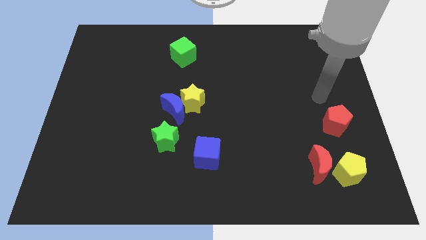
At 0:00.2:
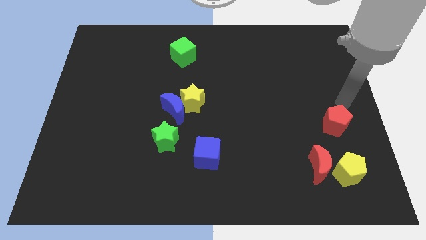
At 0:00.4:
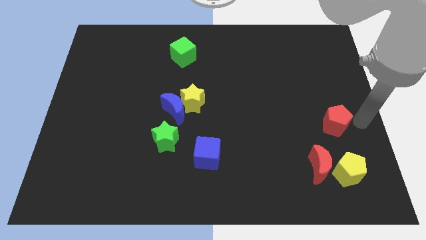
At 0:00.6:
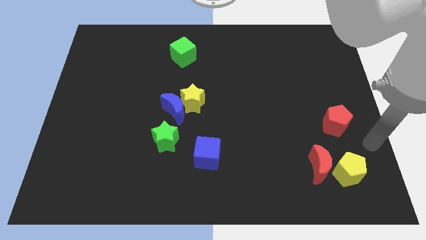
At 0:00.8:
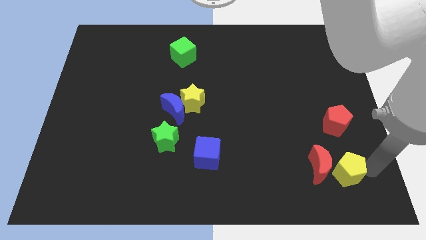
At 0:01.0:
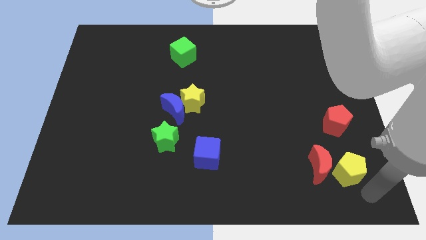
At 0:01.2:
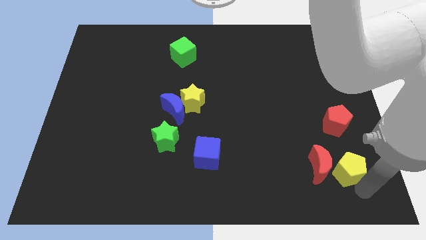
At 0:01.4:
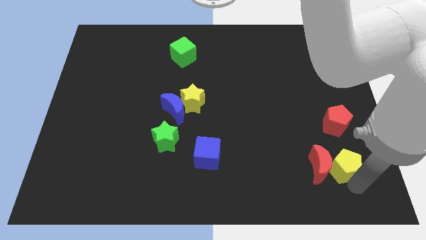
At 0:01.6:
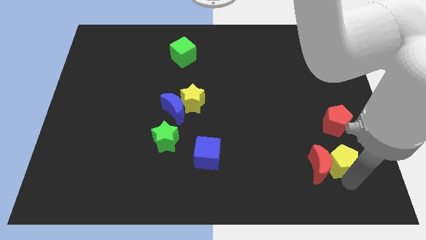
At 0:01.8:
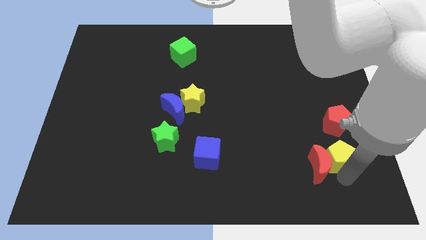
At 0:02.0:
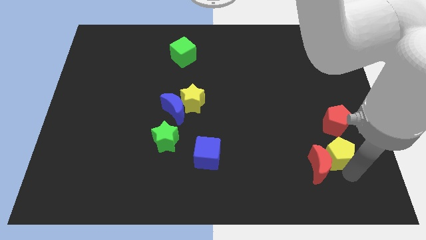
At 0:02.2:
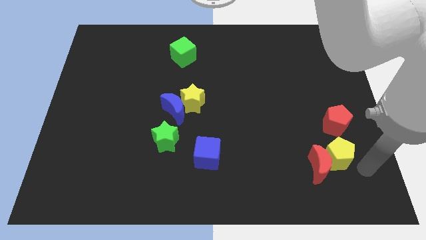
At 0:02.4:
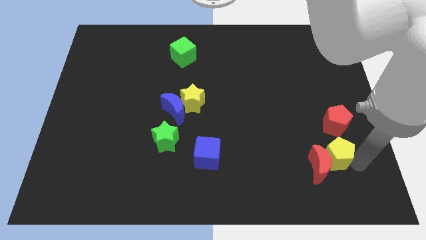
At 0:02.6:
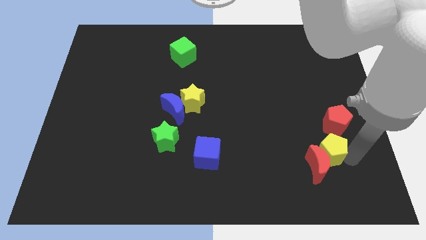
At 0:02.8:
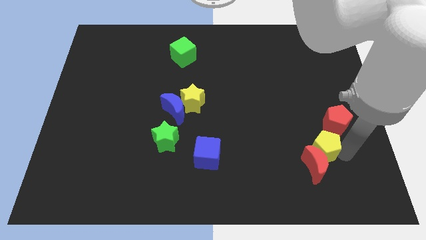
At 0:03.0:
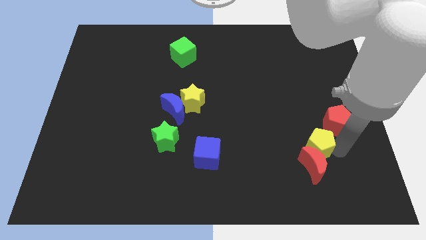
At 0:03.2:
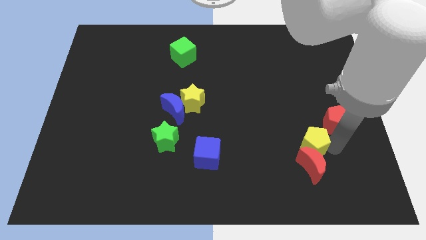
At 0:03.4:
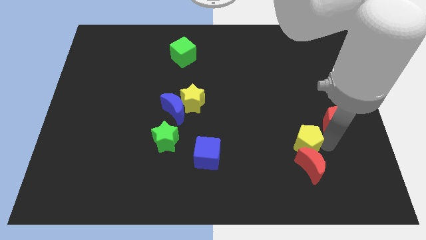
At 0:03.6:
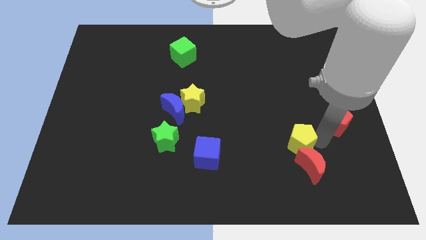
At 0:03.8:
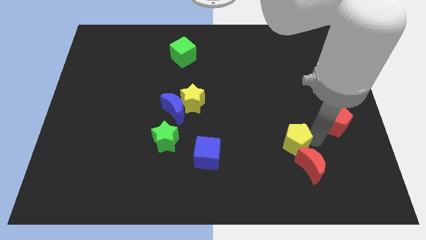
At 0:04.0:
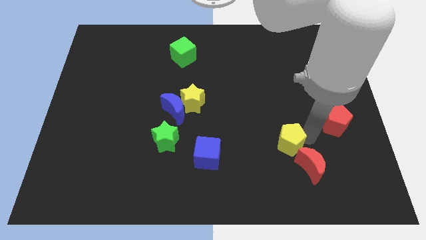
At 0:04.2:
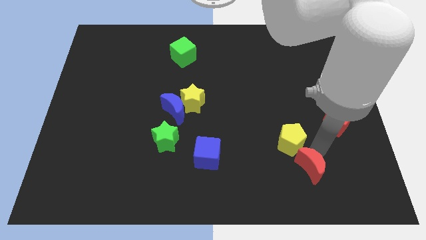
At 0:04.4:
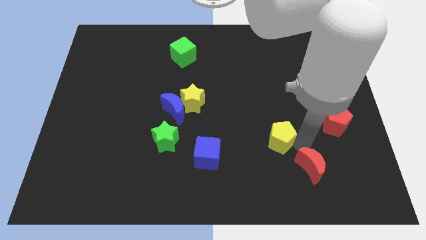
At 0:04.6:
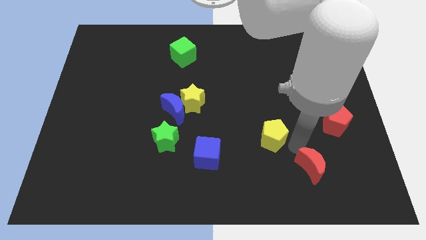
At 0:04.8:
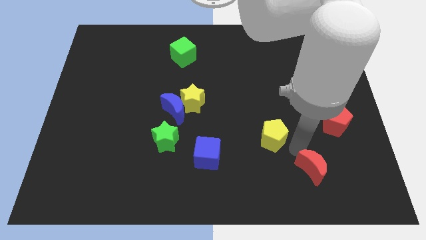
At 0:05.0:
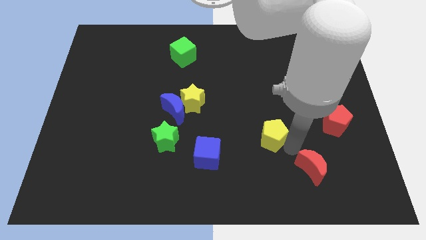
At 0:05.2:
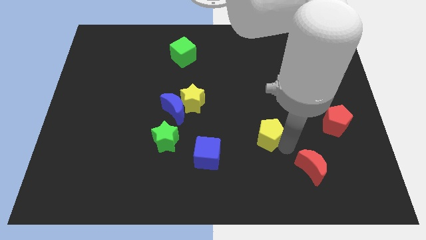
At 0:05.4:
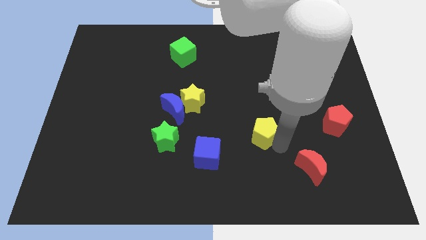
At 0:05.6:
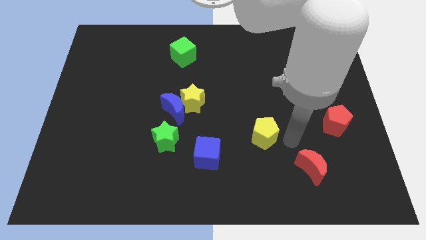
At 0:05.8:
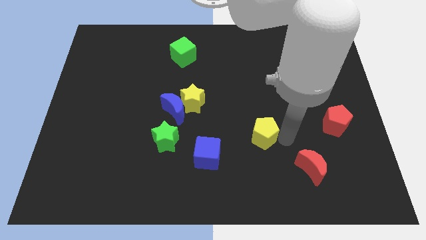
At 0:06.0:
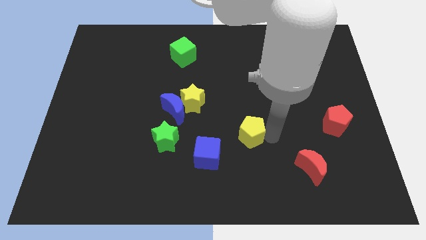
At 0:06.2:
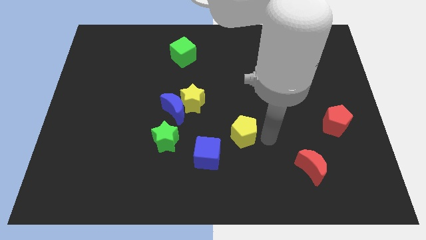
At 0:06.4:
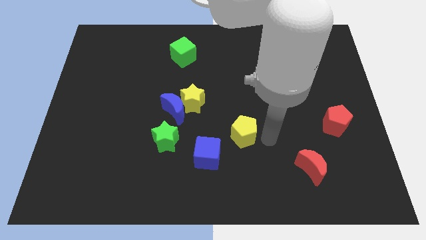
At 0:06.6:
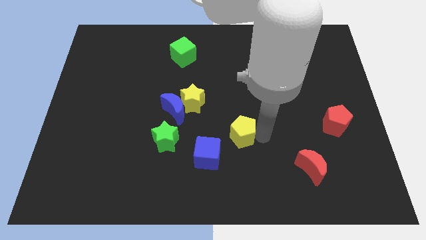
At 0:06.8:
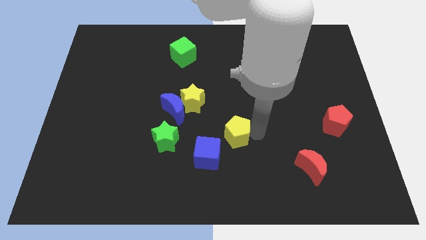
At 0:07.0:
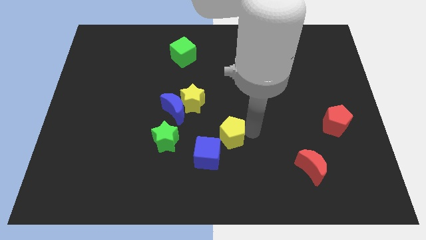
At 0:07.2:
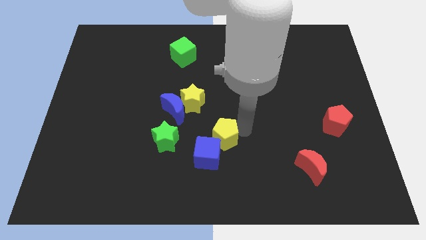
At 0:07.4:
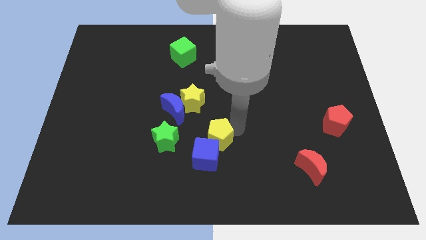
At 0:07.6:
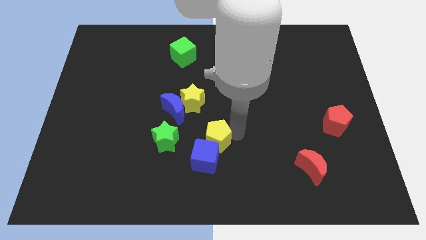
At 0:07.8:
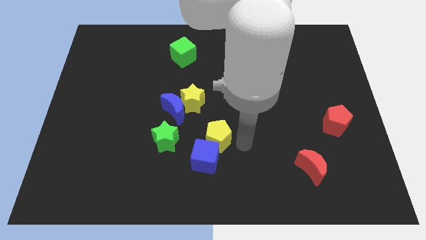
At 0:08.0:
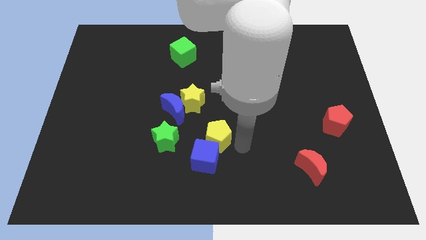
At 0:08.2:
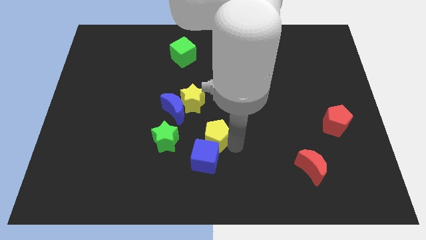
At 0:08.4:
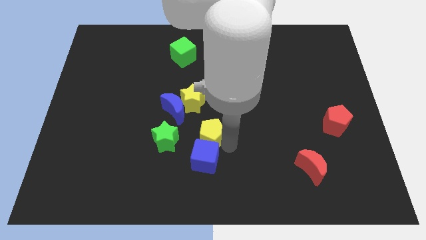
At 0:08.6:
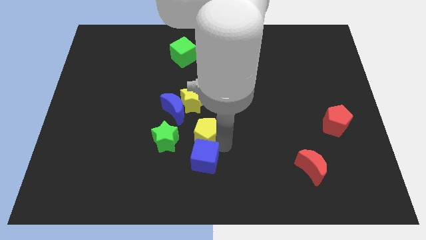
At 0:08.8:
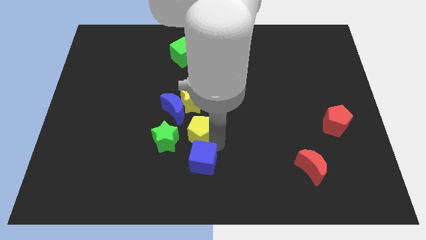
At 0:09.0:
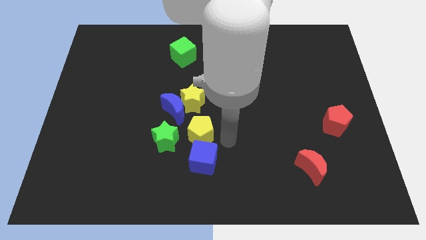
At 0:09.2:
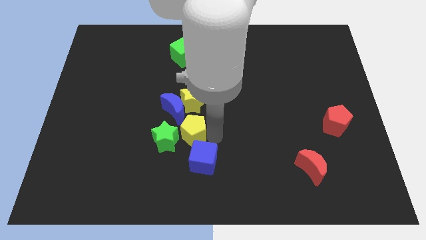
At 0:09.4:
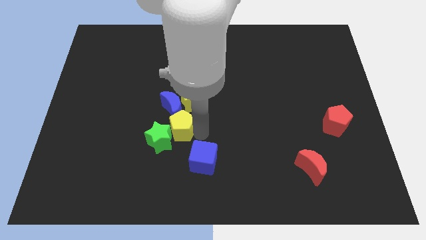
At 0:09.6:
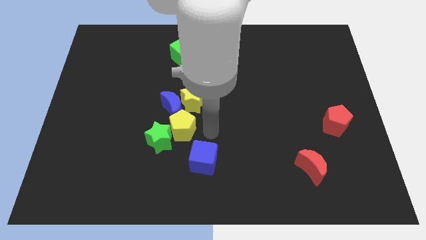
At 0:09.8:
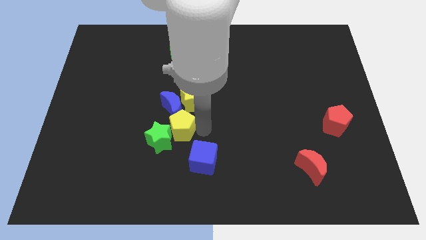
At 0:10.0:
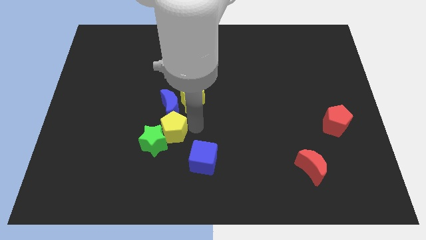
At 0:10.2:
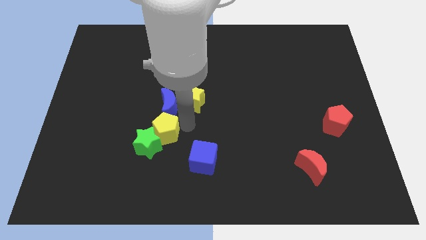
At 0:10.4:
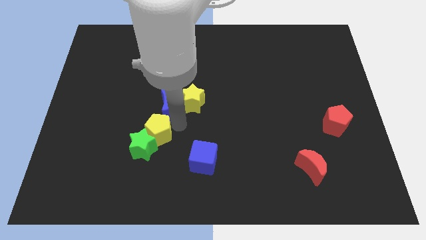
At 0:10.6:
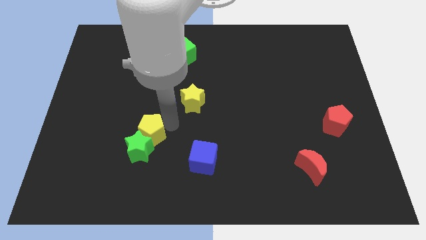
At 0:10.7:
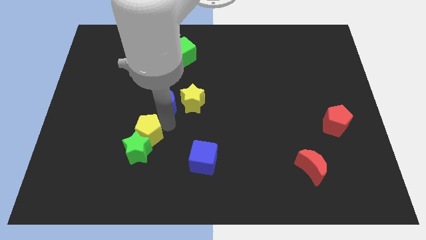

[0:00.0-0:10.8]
slide the yellow pentagon to the top left of the green star

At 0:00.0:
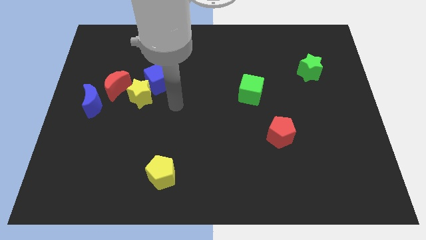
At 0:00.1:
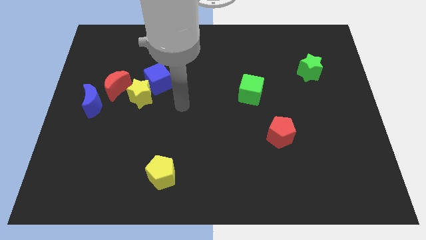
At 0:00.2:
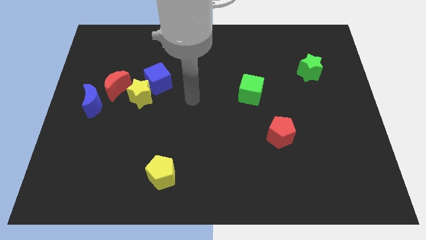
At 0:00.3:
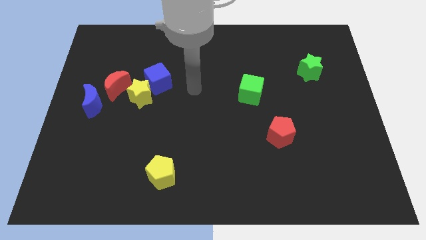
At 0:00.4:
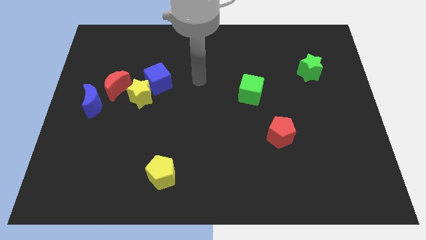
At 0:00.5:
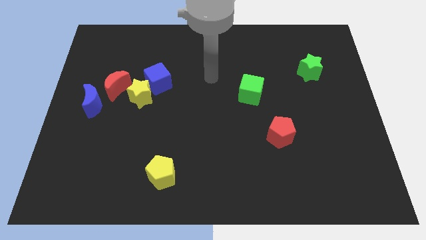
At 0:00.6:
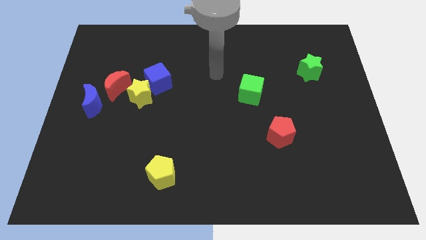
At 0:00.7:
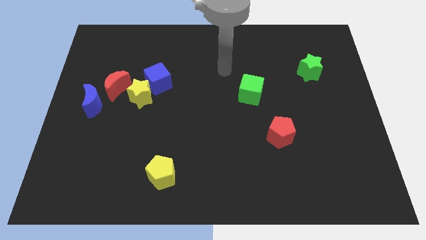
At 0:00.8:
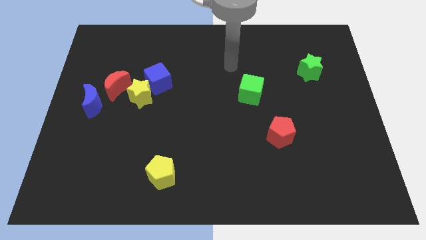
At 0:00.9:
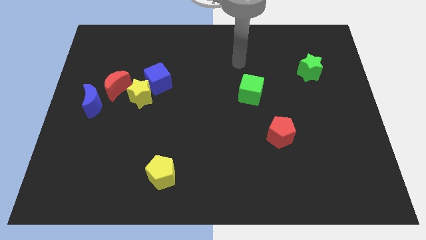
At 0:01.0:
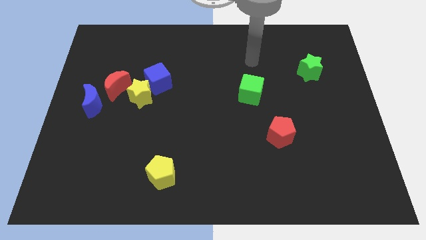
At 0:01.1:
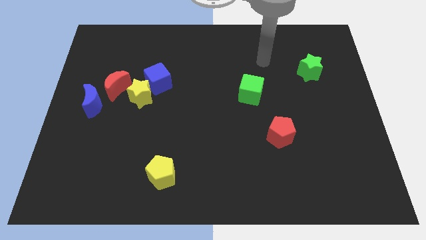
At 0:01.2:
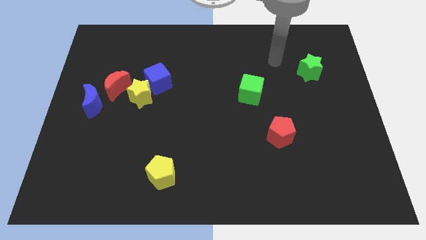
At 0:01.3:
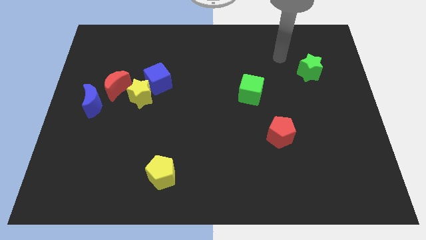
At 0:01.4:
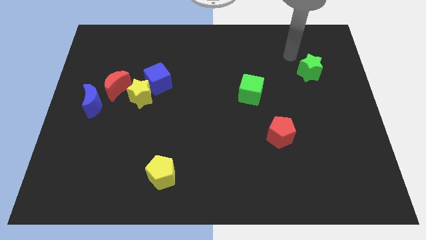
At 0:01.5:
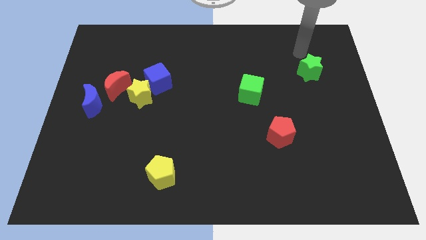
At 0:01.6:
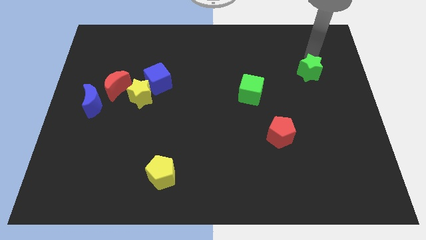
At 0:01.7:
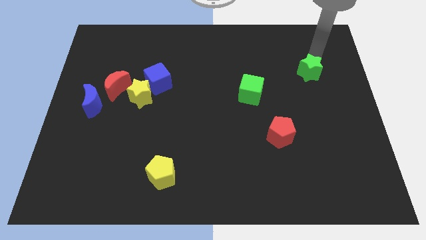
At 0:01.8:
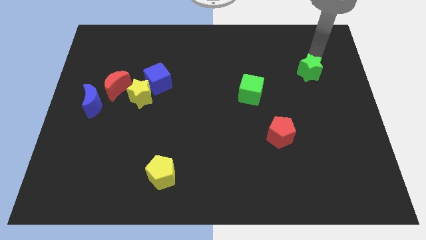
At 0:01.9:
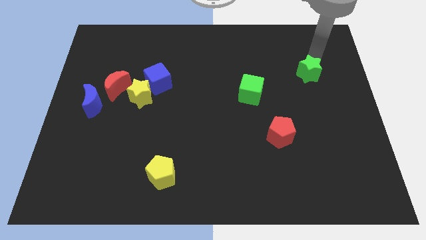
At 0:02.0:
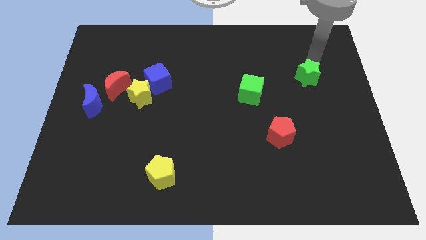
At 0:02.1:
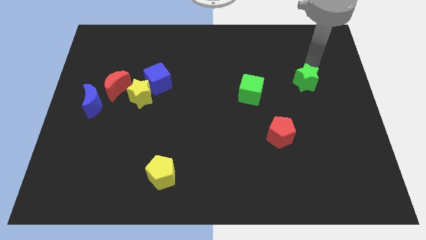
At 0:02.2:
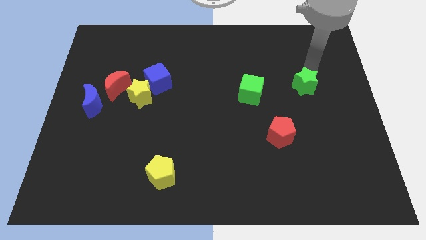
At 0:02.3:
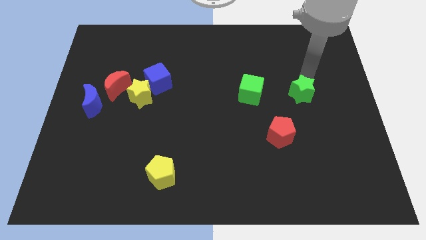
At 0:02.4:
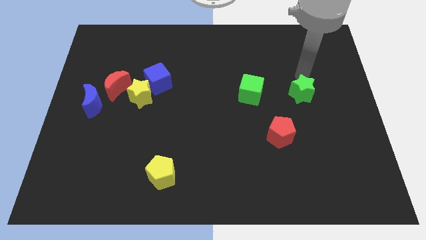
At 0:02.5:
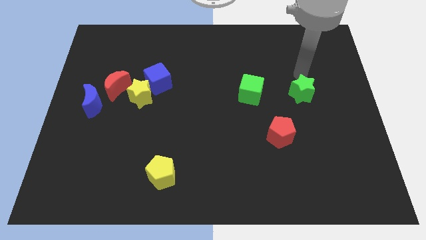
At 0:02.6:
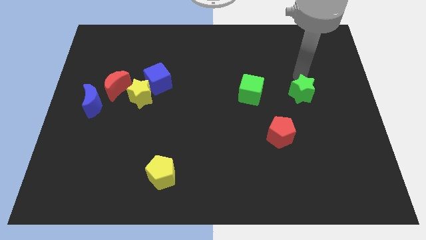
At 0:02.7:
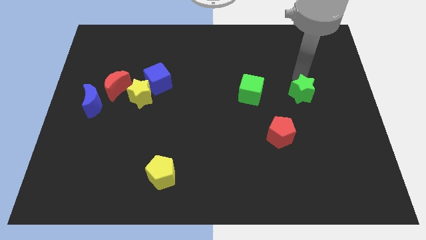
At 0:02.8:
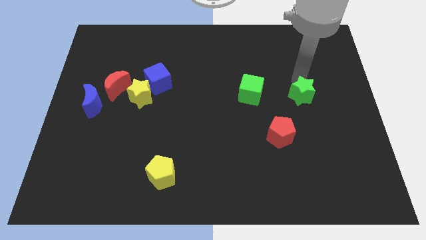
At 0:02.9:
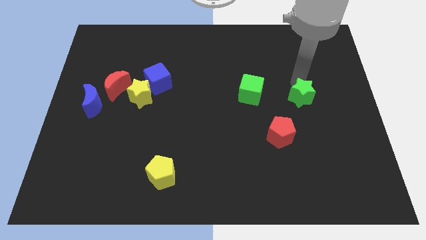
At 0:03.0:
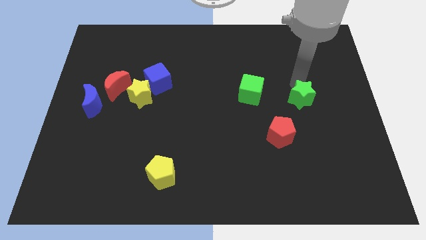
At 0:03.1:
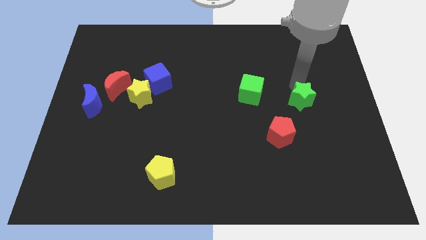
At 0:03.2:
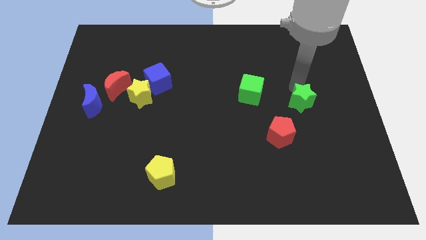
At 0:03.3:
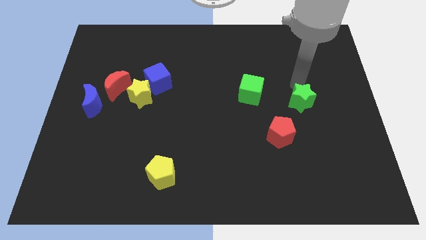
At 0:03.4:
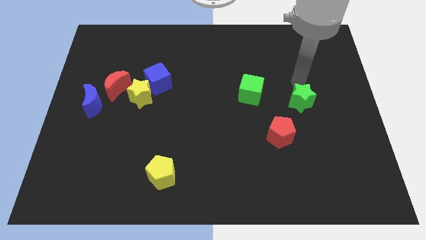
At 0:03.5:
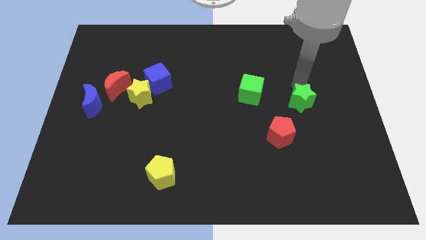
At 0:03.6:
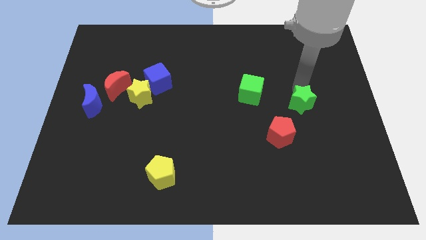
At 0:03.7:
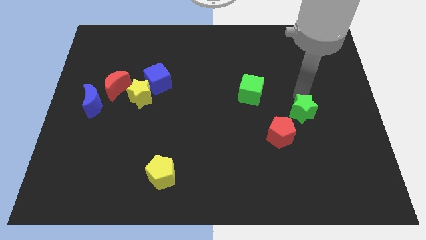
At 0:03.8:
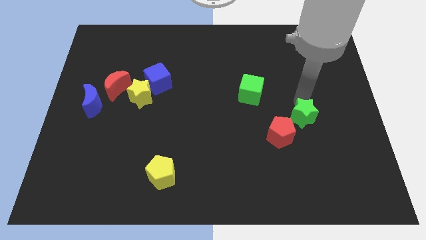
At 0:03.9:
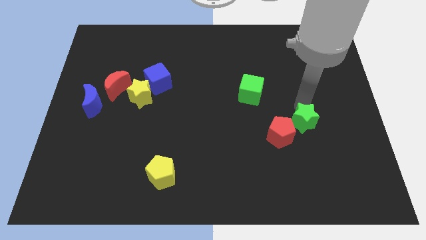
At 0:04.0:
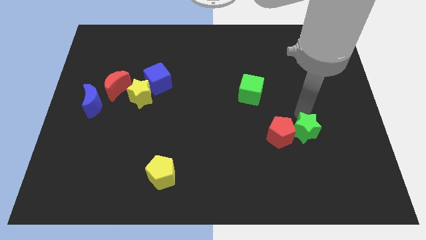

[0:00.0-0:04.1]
put the green star to the bottom right side of the red pentagon
